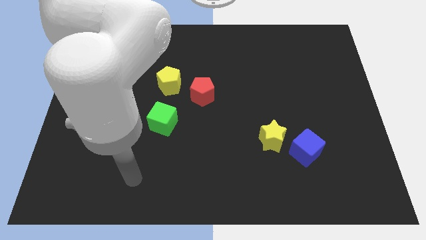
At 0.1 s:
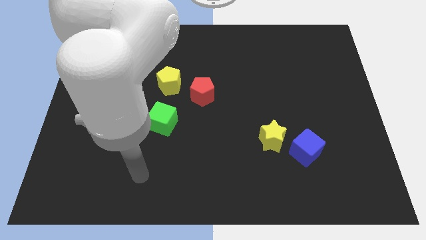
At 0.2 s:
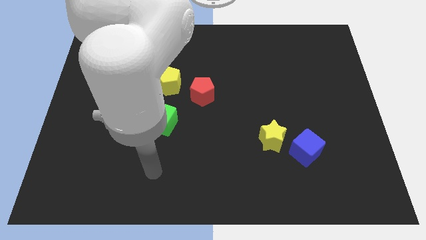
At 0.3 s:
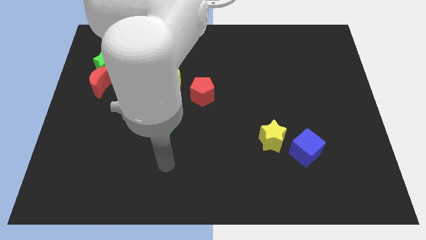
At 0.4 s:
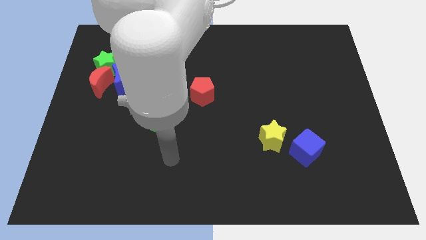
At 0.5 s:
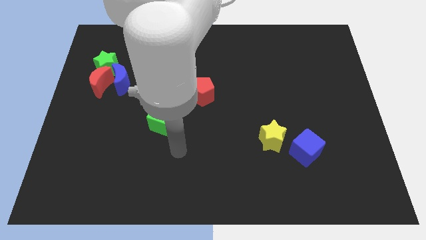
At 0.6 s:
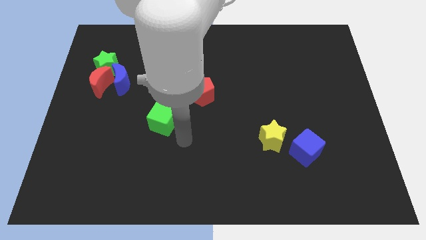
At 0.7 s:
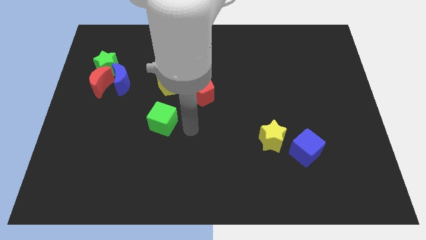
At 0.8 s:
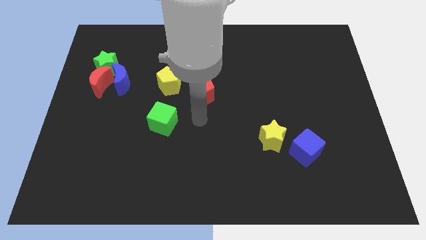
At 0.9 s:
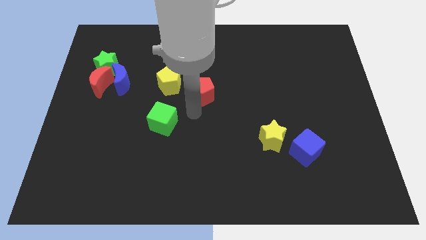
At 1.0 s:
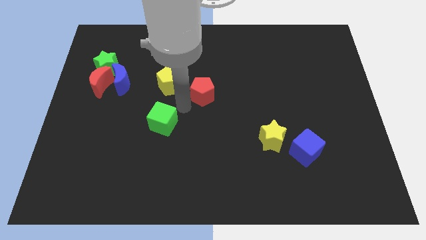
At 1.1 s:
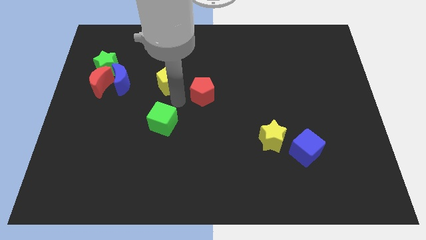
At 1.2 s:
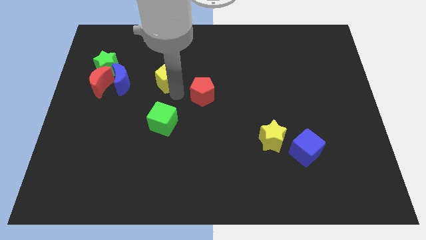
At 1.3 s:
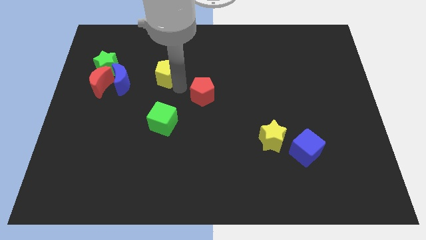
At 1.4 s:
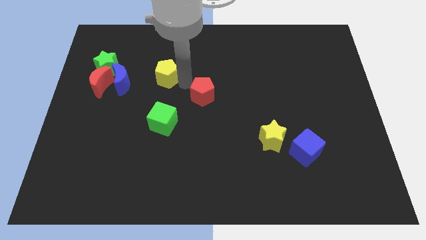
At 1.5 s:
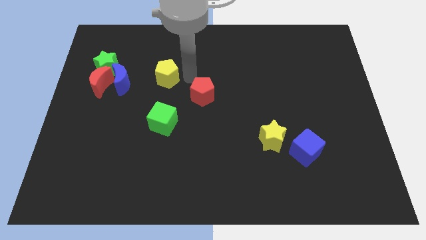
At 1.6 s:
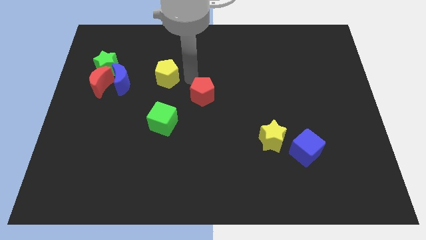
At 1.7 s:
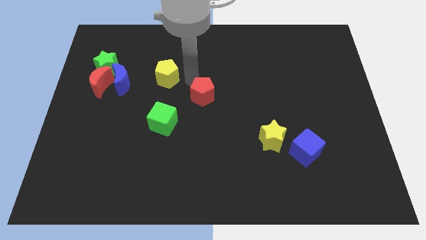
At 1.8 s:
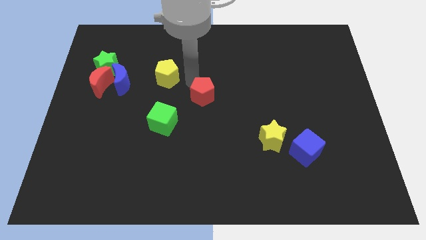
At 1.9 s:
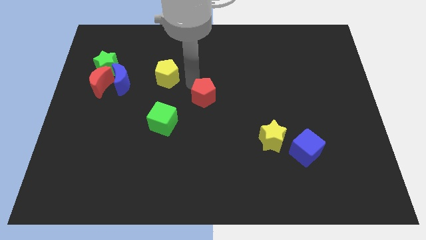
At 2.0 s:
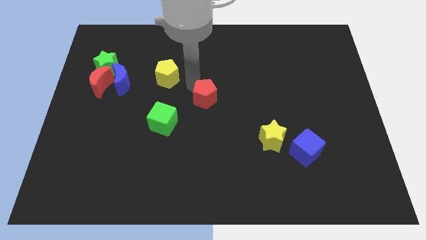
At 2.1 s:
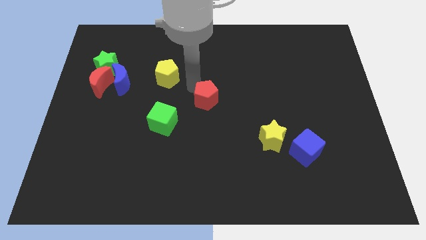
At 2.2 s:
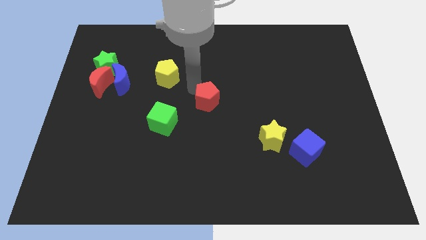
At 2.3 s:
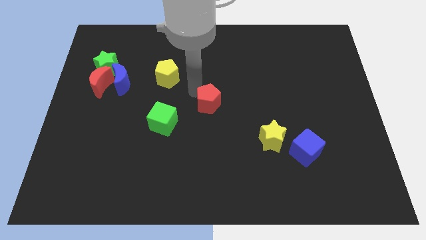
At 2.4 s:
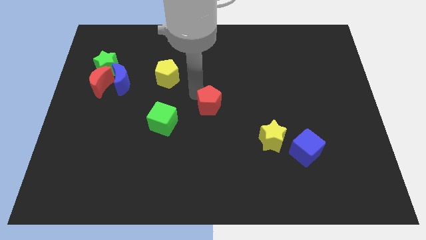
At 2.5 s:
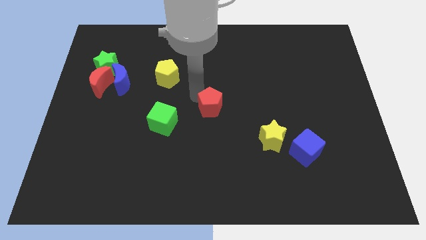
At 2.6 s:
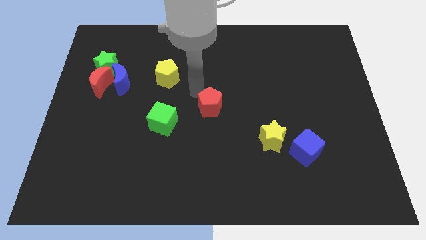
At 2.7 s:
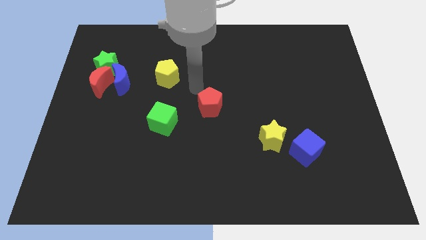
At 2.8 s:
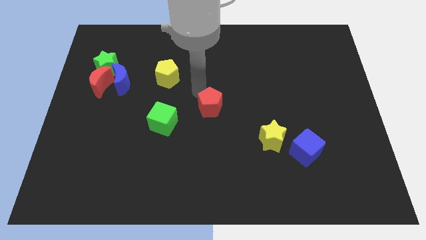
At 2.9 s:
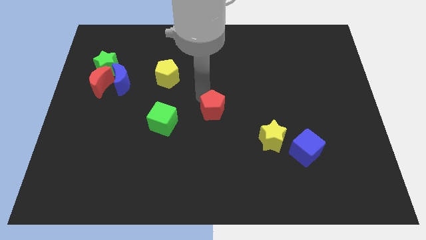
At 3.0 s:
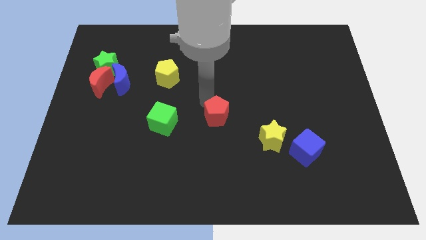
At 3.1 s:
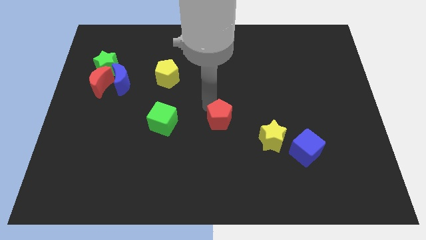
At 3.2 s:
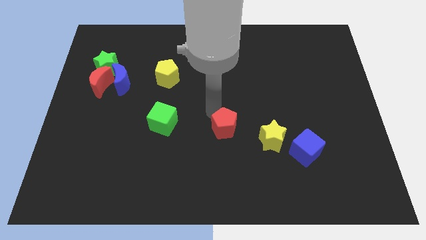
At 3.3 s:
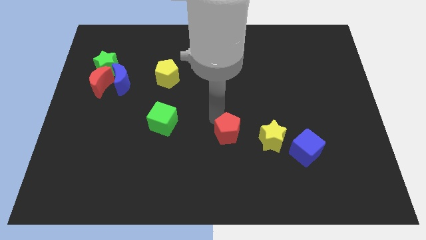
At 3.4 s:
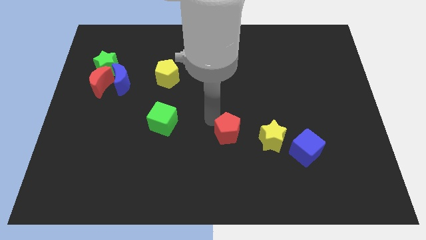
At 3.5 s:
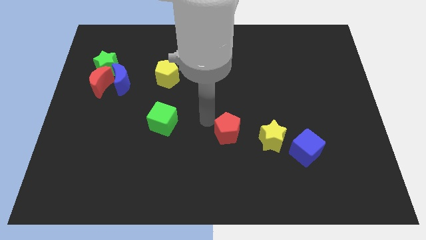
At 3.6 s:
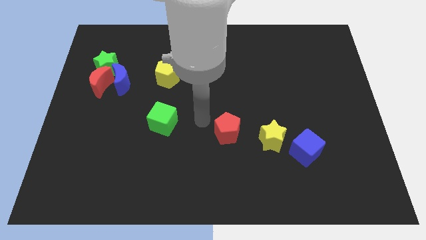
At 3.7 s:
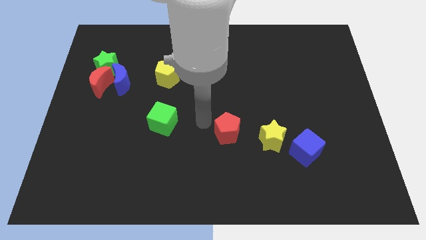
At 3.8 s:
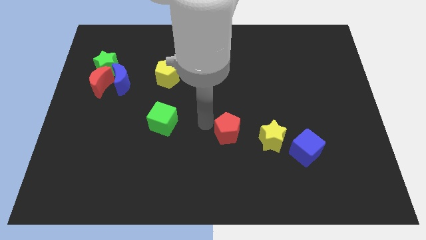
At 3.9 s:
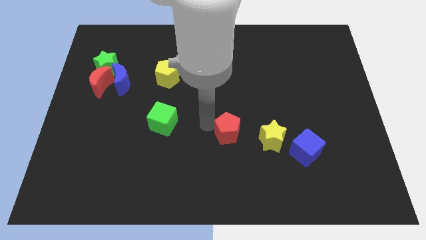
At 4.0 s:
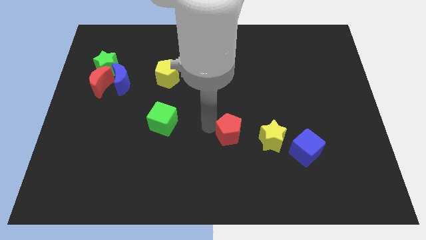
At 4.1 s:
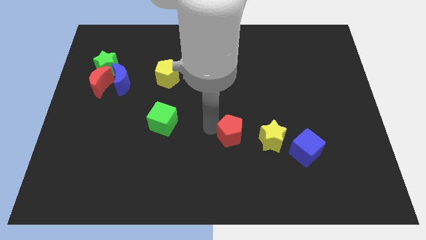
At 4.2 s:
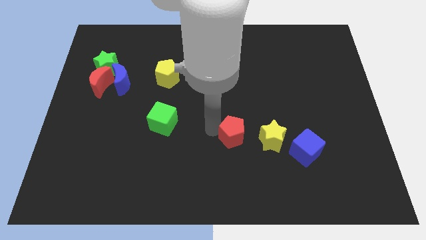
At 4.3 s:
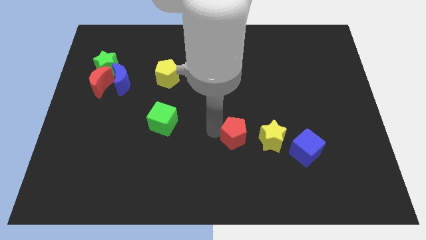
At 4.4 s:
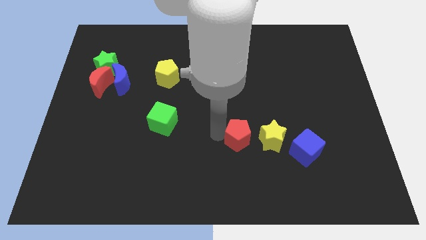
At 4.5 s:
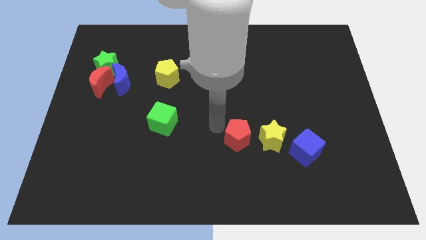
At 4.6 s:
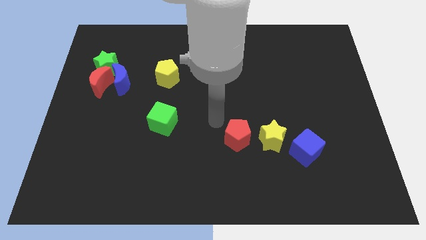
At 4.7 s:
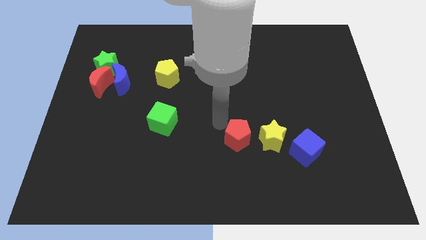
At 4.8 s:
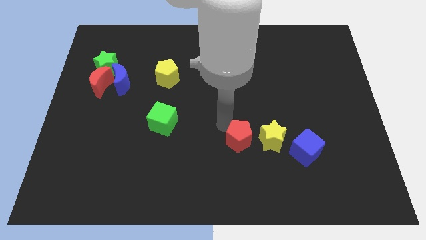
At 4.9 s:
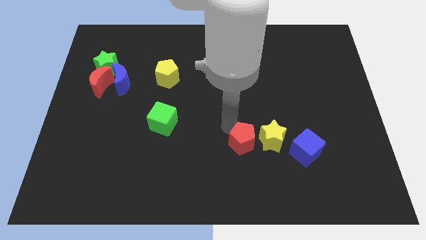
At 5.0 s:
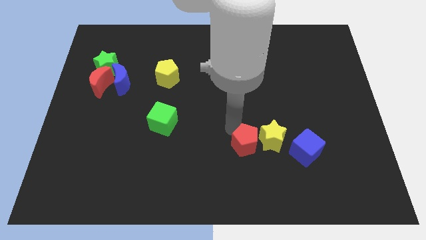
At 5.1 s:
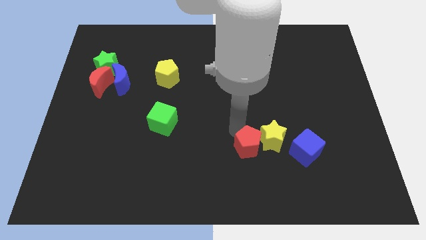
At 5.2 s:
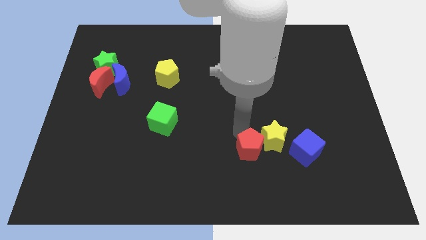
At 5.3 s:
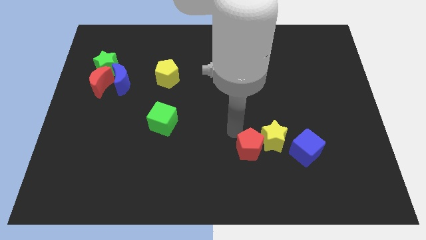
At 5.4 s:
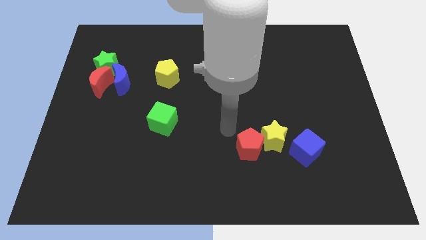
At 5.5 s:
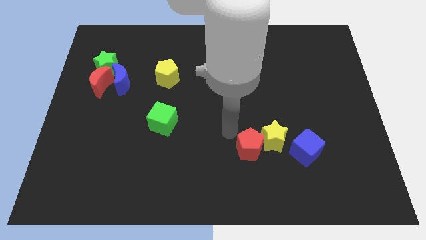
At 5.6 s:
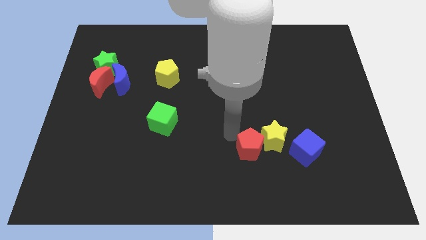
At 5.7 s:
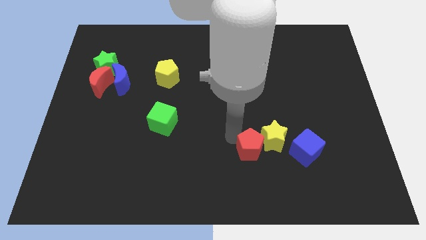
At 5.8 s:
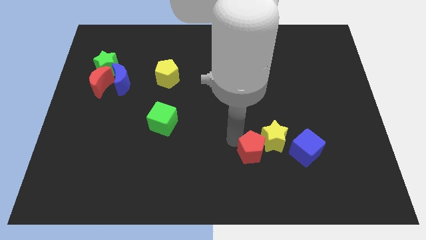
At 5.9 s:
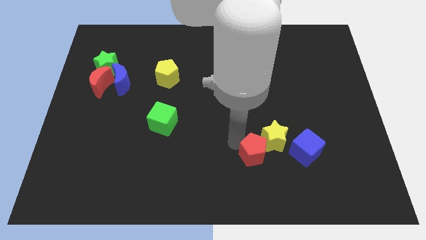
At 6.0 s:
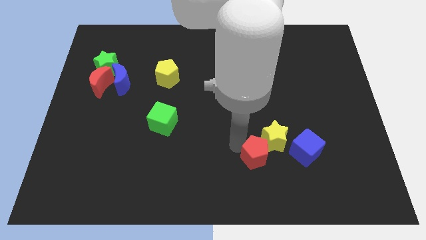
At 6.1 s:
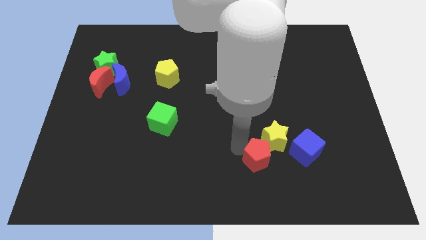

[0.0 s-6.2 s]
slide the red pentagon downwards and then right

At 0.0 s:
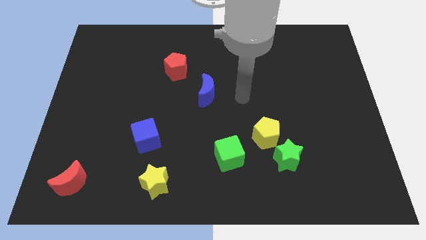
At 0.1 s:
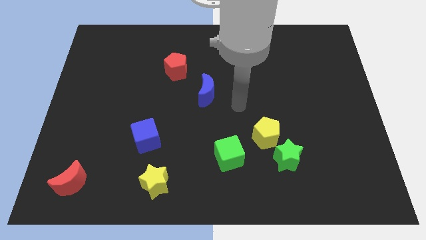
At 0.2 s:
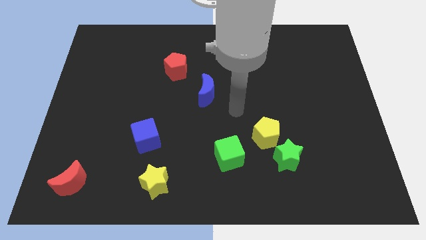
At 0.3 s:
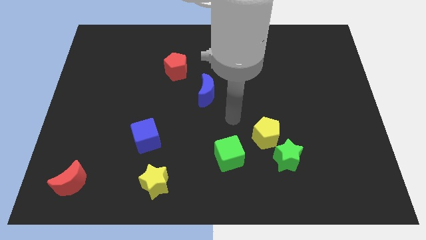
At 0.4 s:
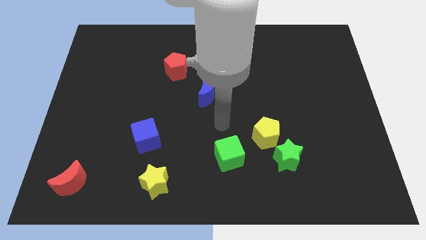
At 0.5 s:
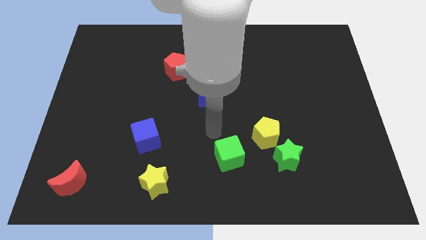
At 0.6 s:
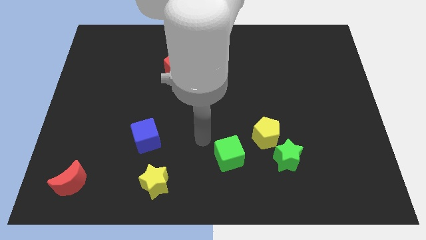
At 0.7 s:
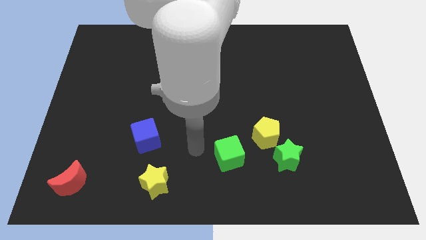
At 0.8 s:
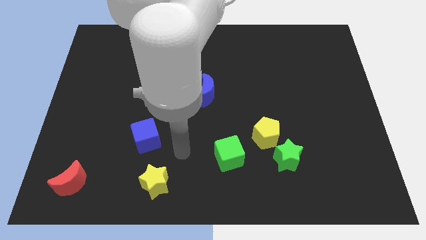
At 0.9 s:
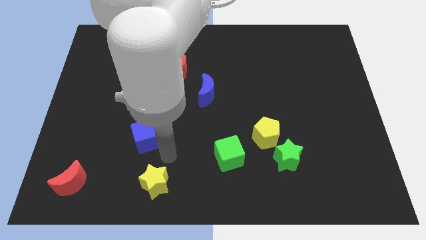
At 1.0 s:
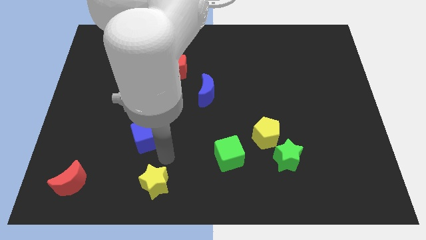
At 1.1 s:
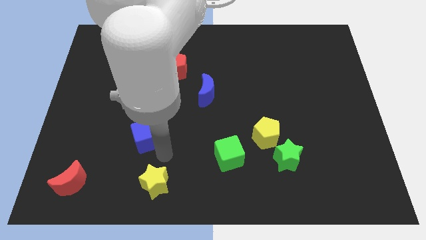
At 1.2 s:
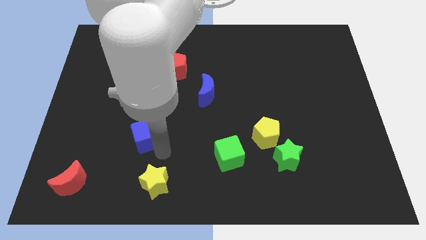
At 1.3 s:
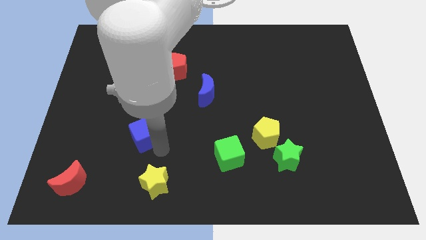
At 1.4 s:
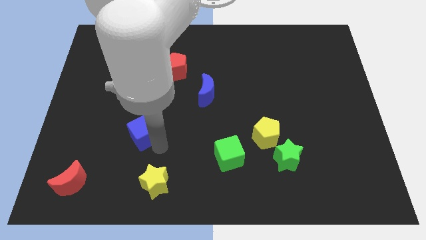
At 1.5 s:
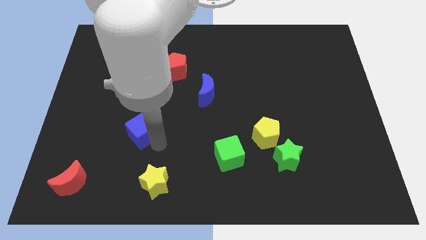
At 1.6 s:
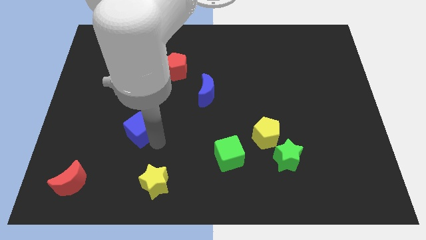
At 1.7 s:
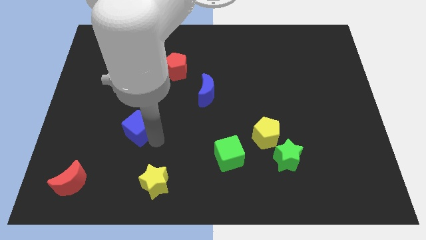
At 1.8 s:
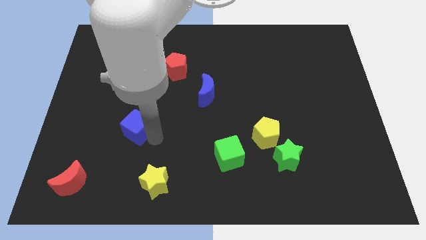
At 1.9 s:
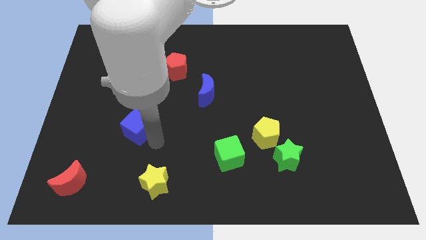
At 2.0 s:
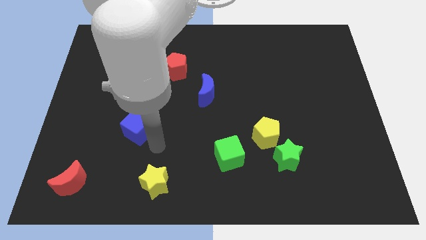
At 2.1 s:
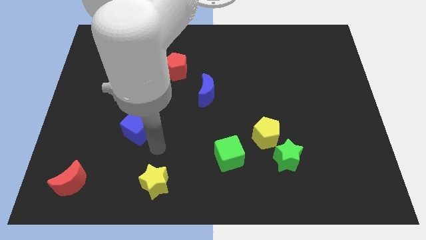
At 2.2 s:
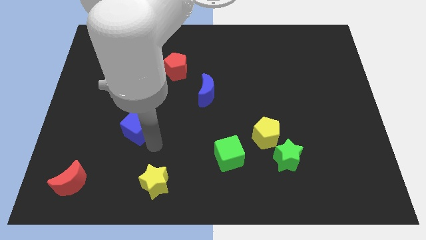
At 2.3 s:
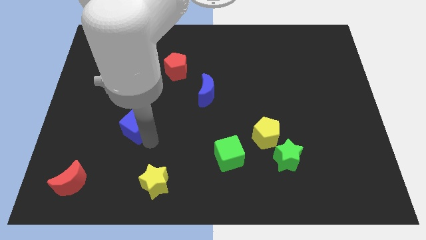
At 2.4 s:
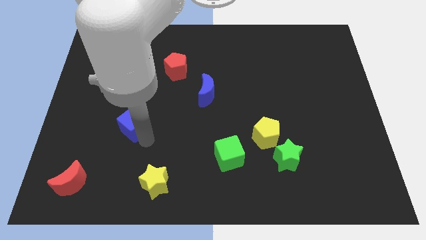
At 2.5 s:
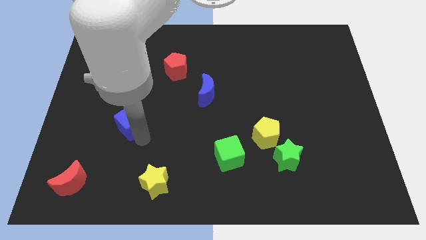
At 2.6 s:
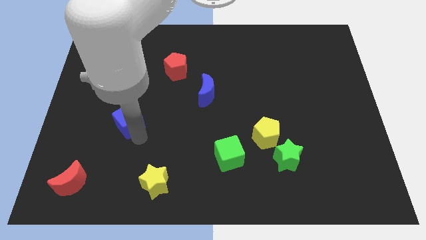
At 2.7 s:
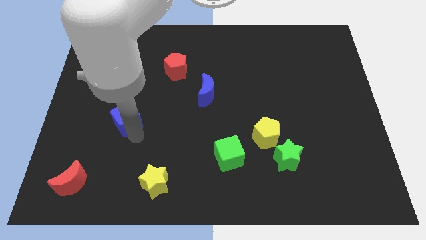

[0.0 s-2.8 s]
slide the blue cube up and then left a little
